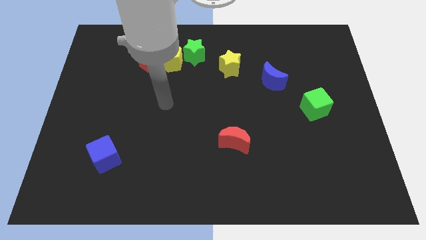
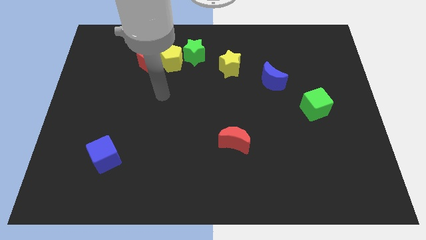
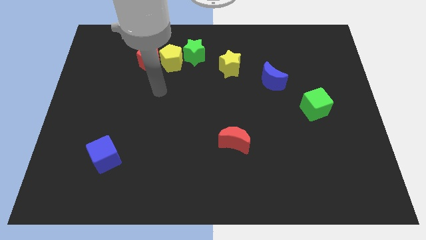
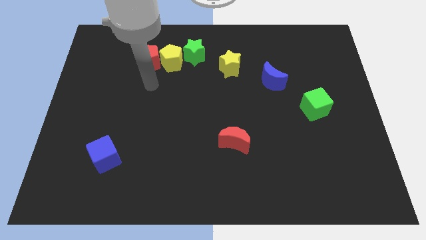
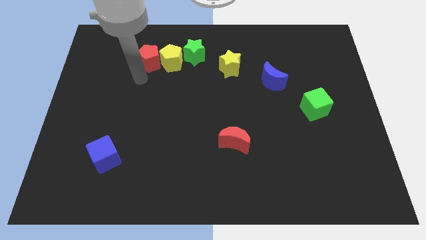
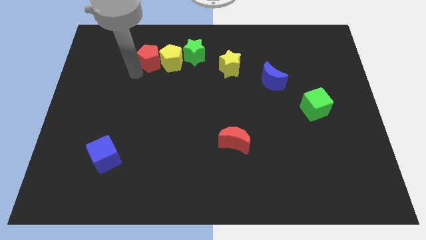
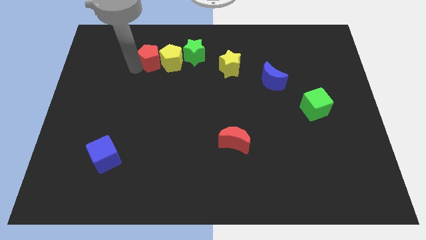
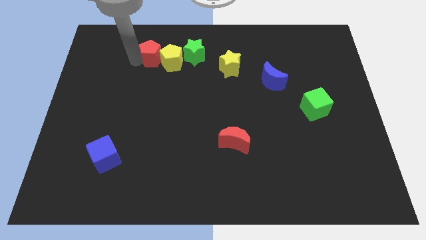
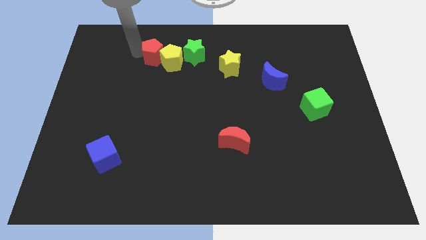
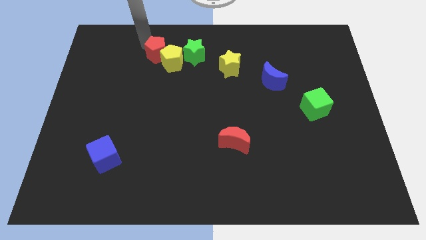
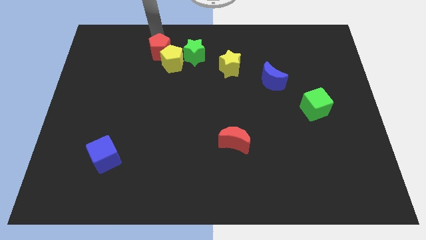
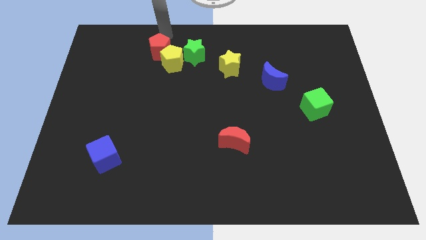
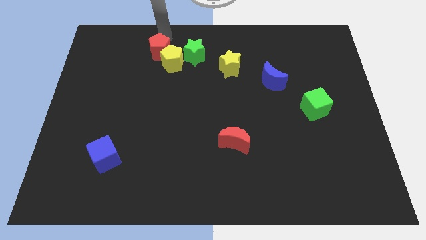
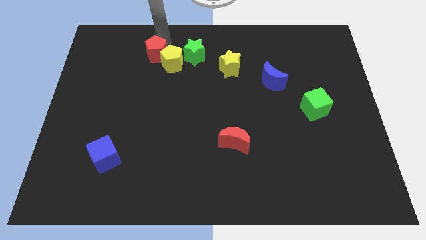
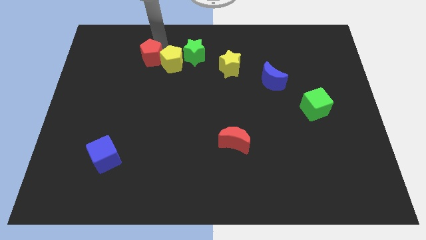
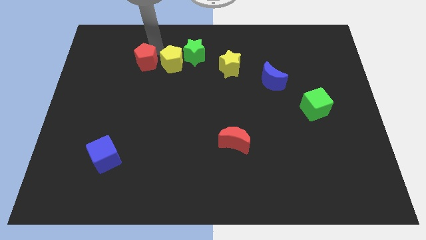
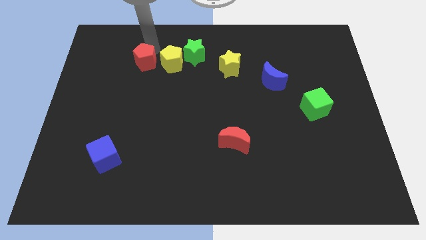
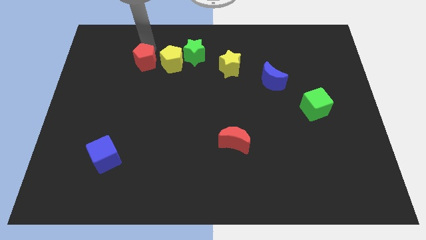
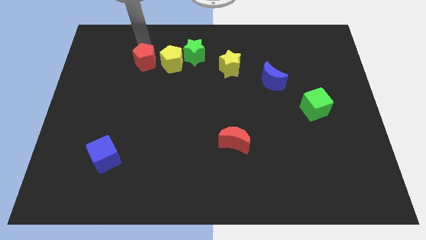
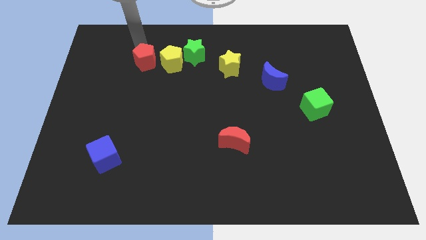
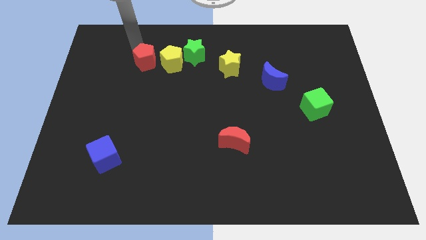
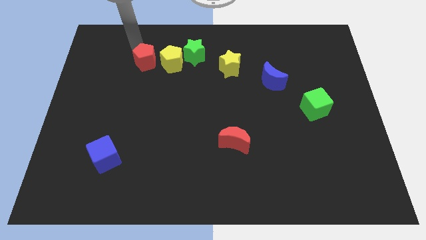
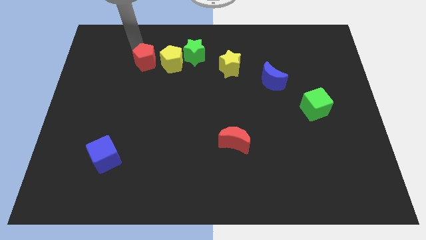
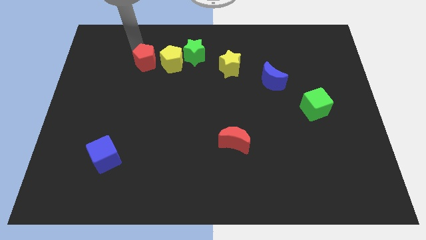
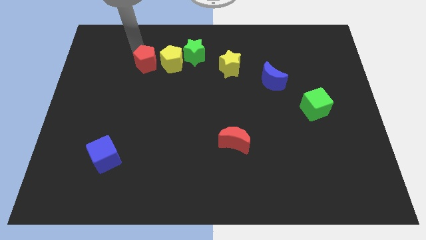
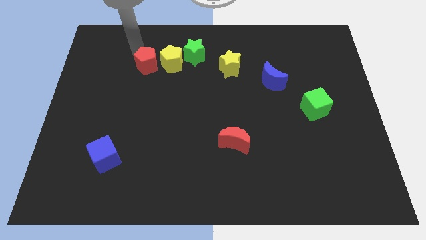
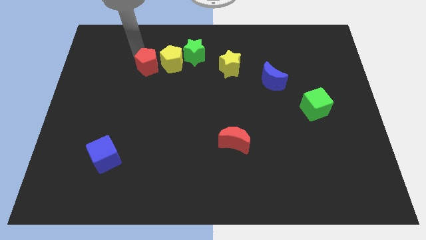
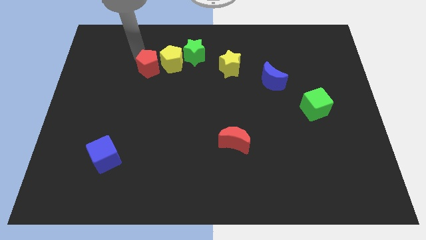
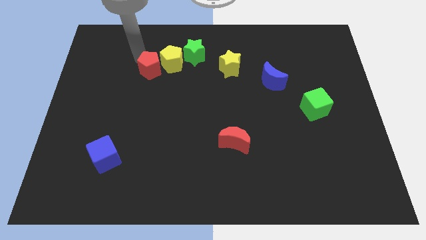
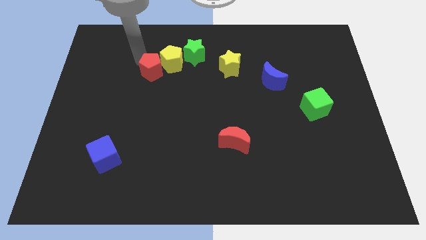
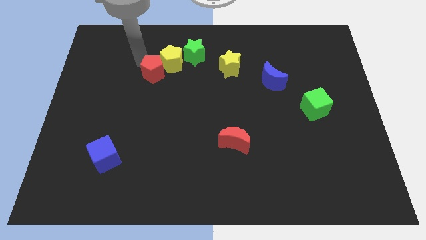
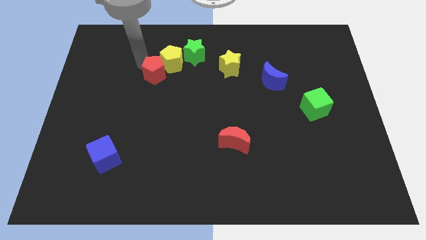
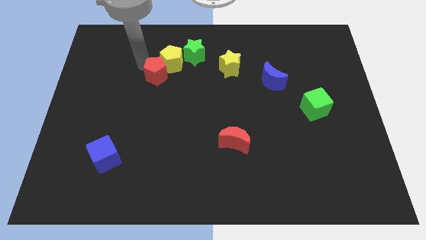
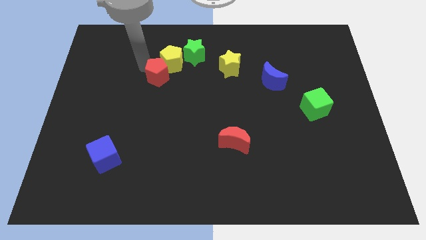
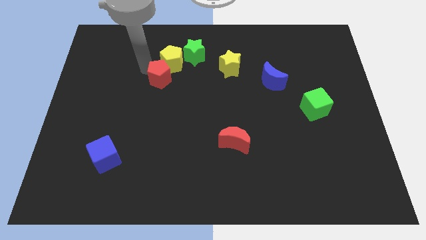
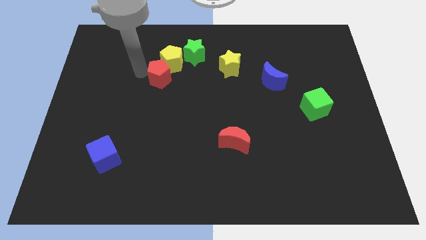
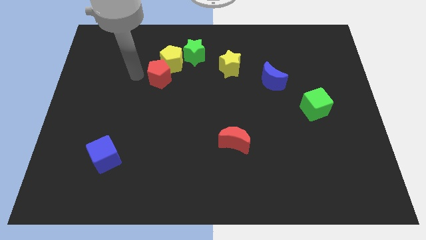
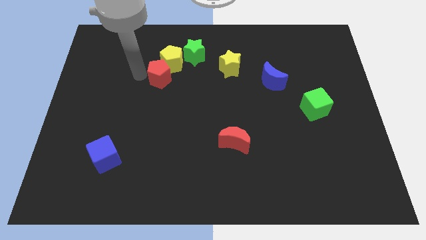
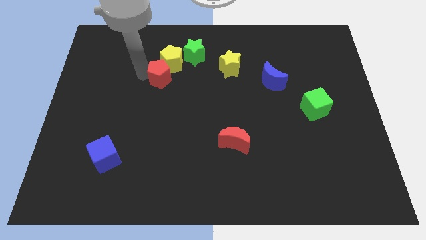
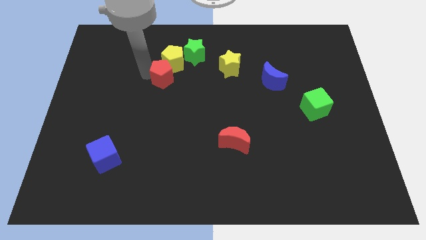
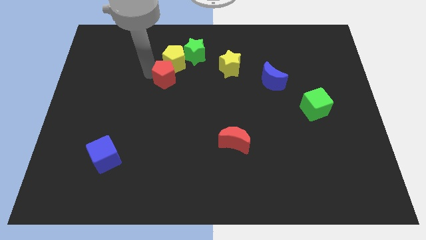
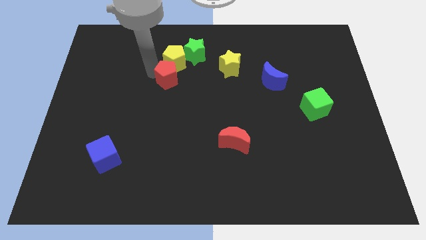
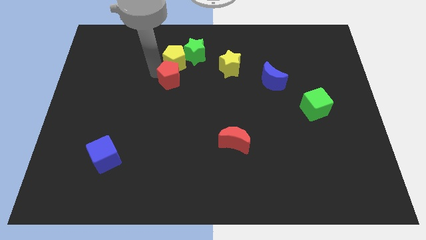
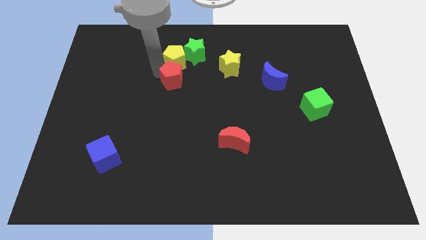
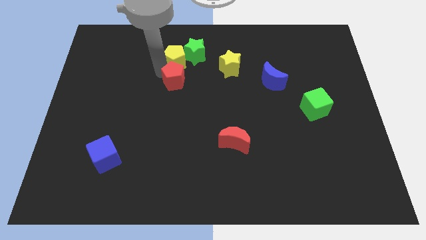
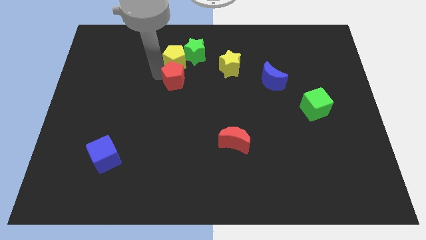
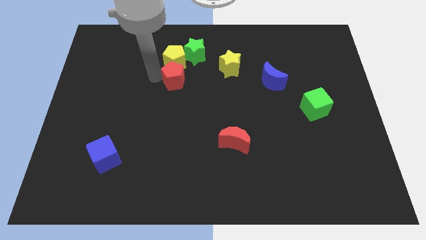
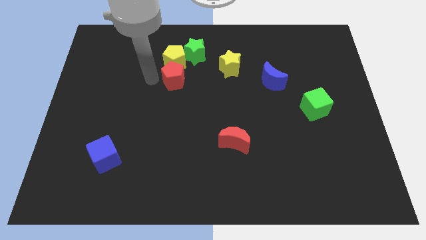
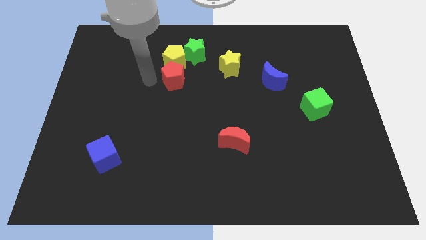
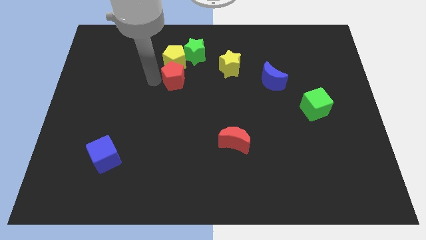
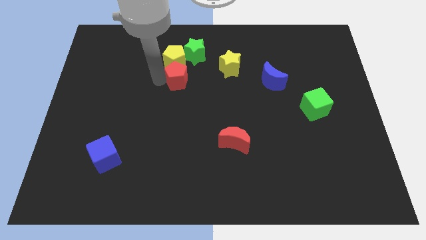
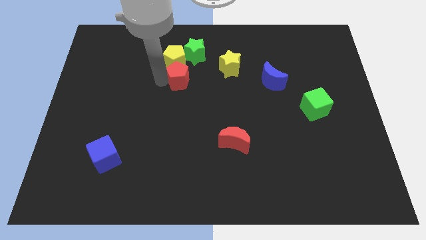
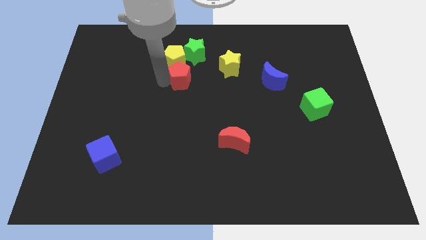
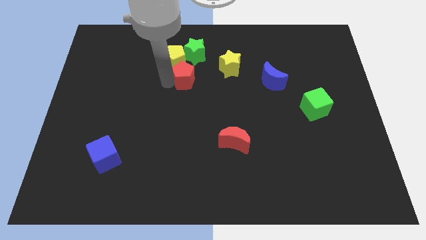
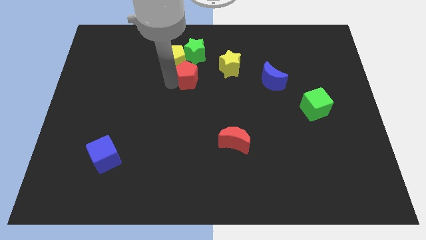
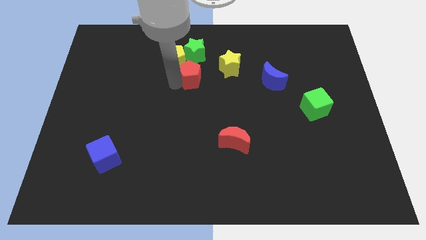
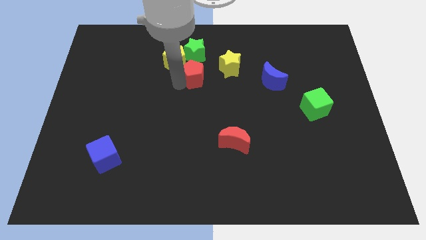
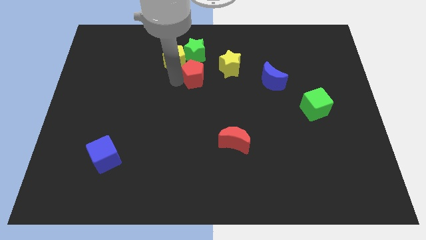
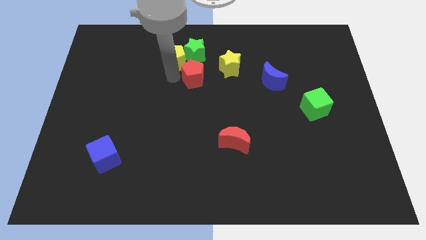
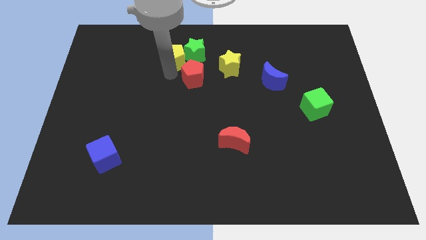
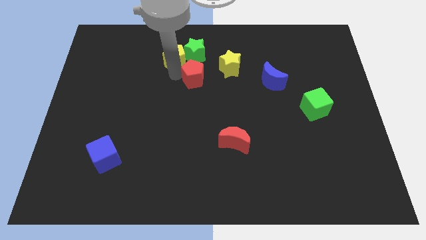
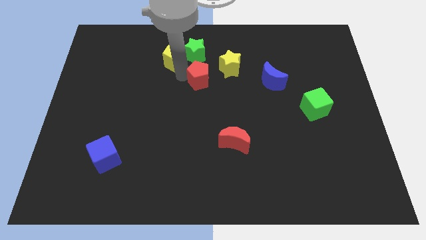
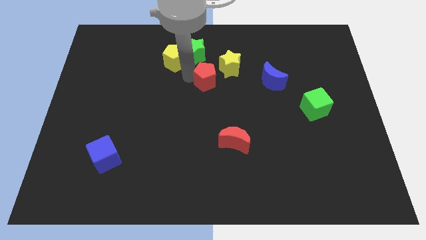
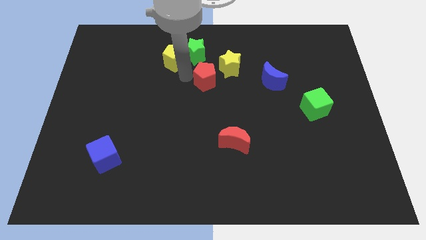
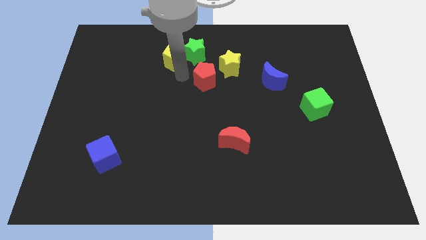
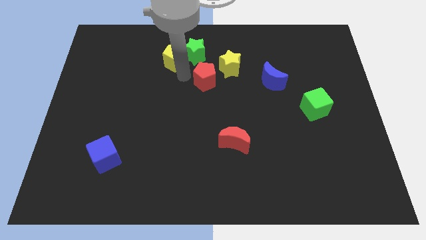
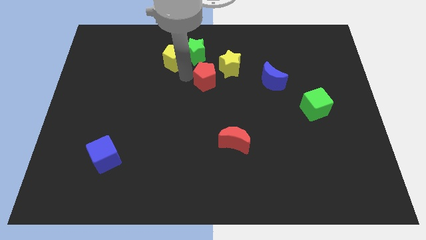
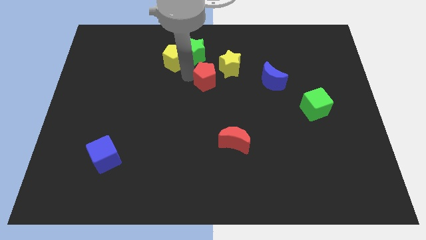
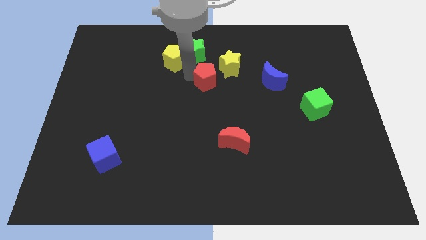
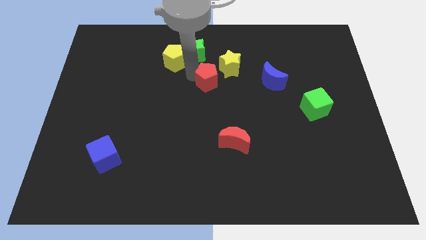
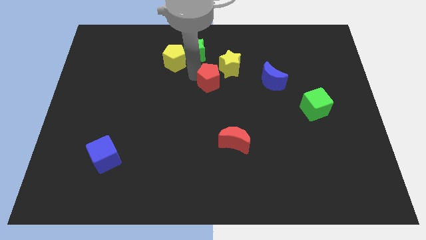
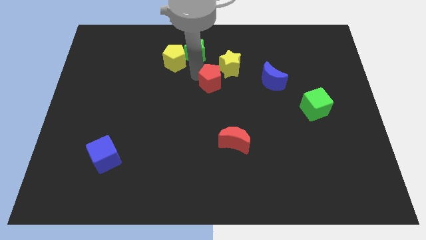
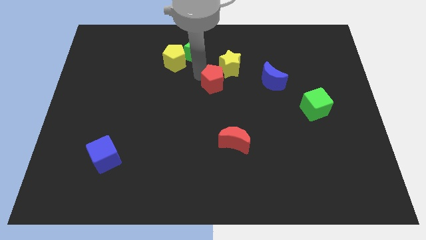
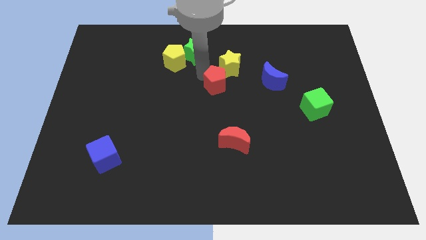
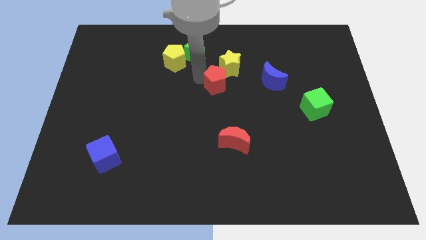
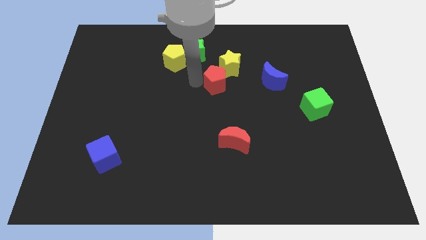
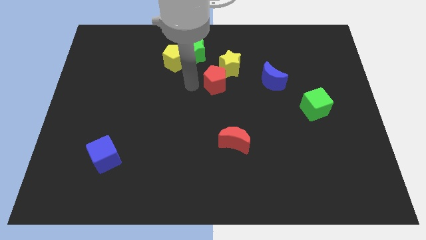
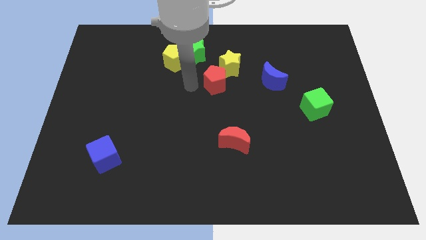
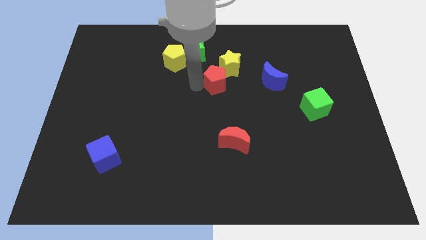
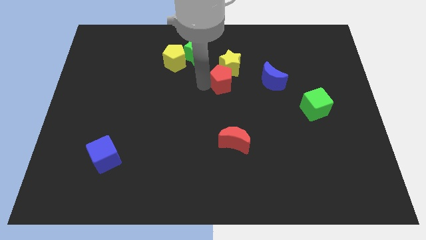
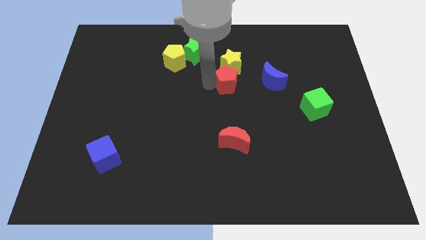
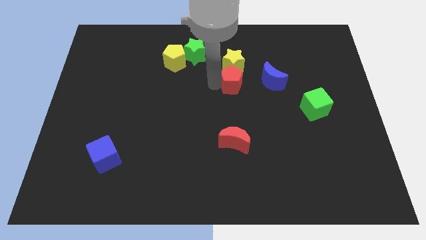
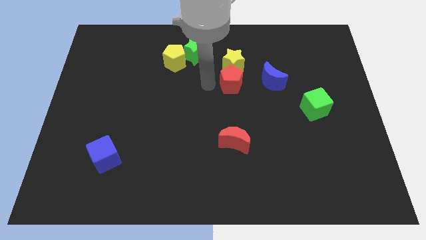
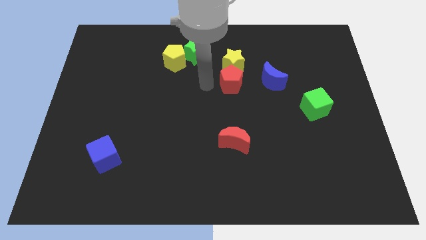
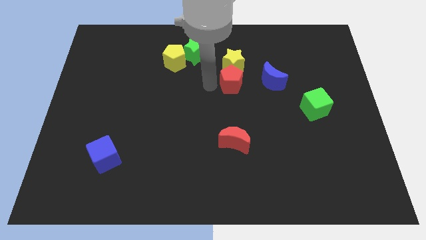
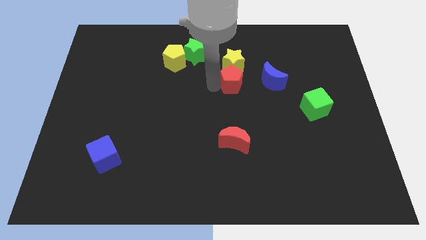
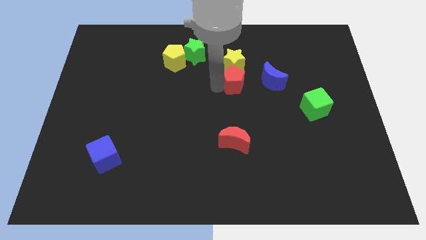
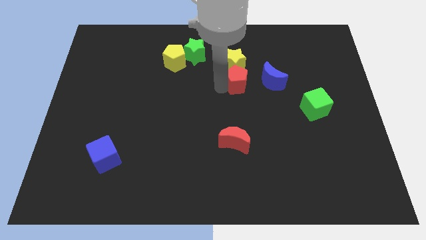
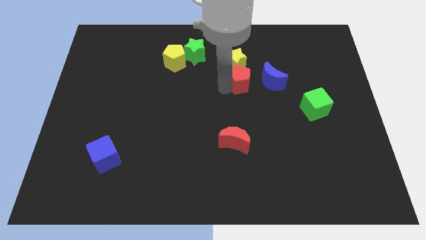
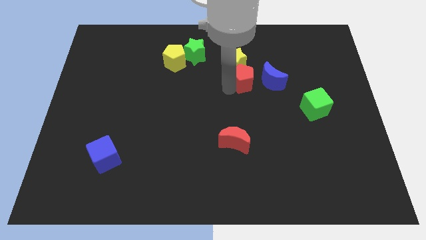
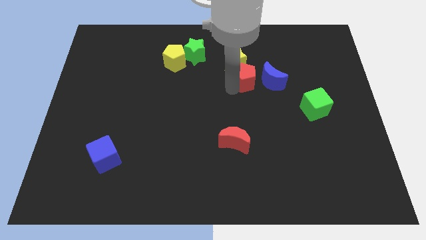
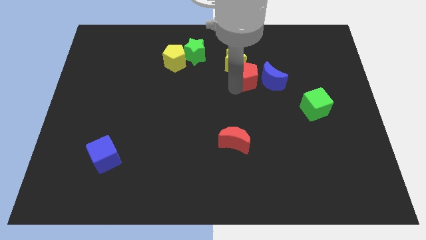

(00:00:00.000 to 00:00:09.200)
slide the red pentagon towards the blue moon
